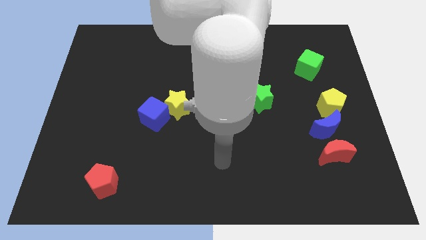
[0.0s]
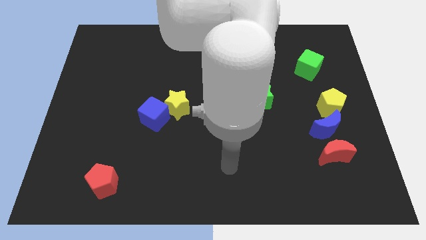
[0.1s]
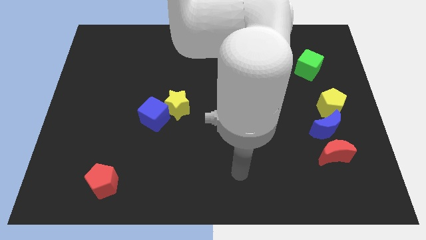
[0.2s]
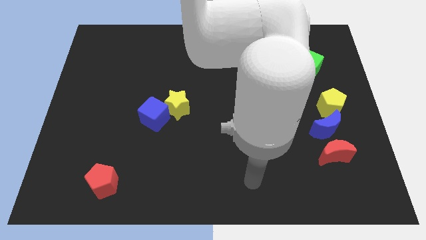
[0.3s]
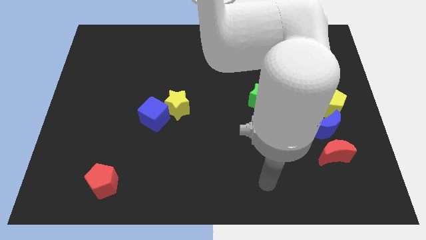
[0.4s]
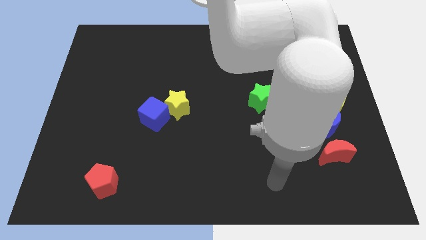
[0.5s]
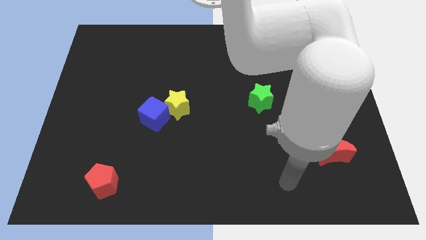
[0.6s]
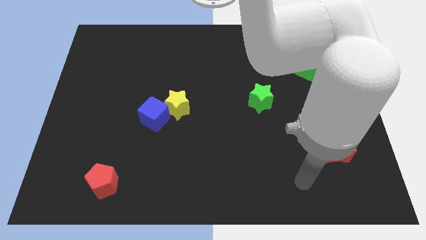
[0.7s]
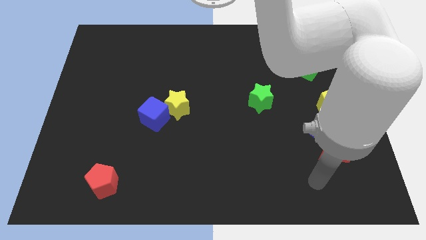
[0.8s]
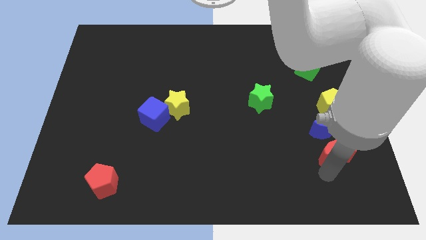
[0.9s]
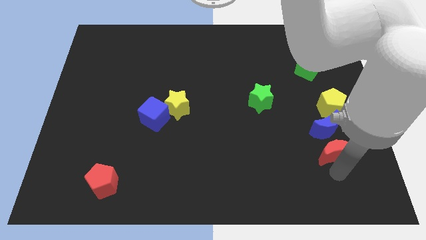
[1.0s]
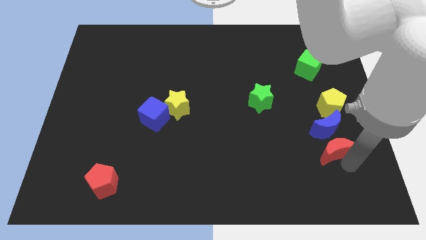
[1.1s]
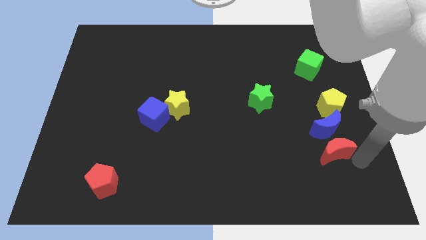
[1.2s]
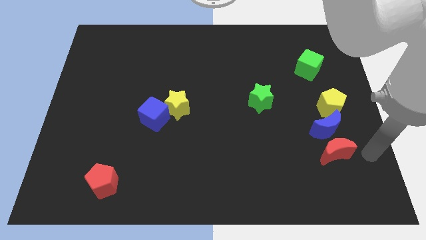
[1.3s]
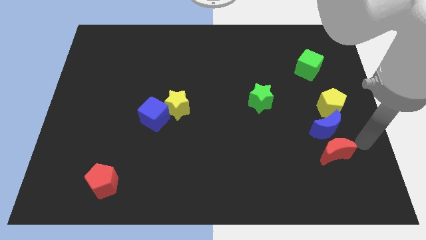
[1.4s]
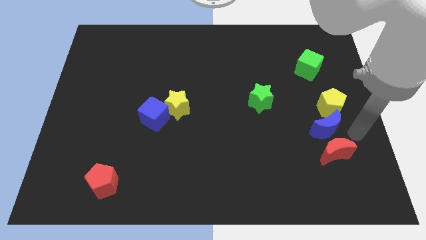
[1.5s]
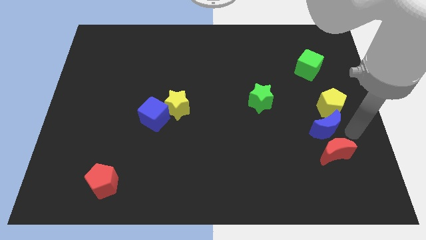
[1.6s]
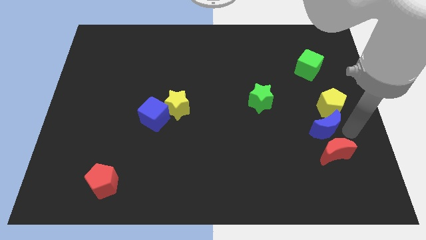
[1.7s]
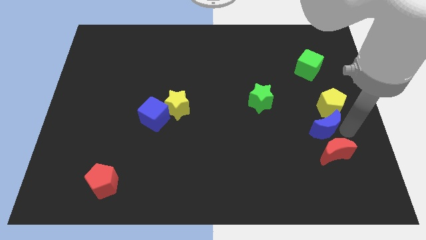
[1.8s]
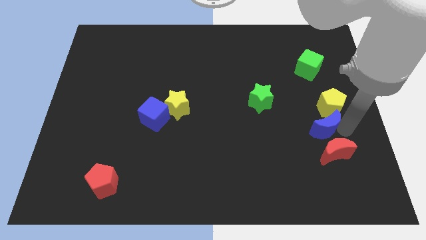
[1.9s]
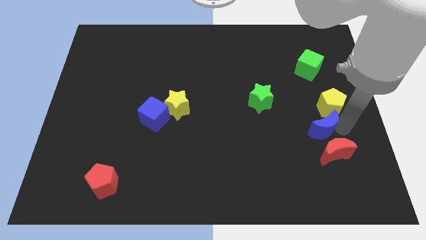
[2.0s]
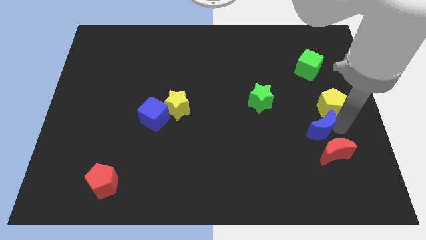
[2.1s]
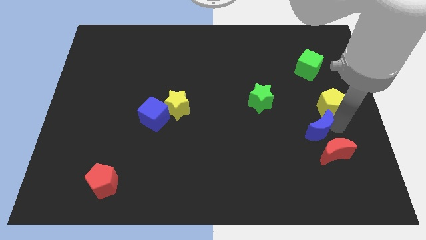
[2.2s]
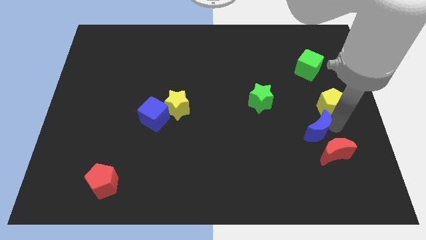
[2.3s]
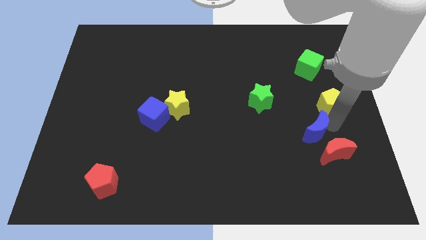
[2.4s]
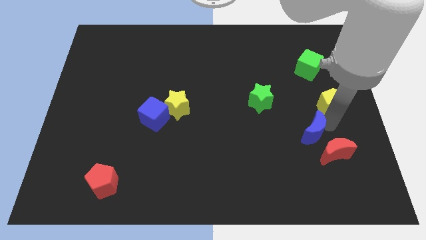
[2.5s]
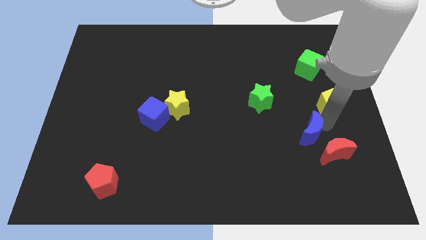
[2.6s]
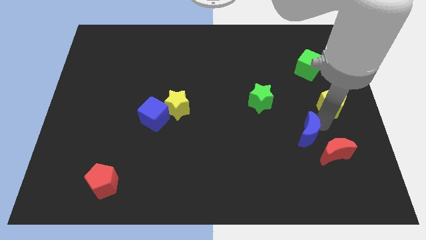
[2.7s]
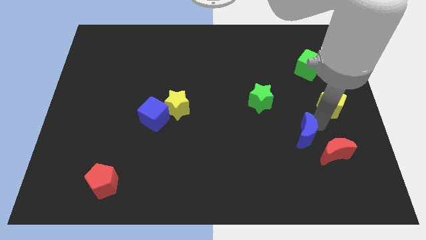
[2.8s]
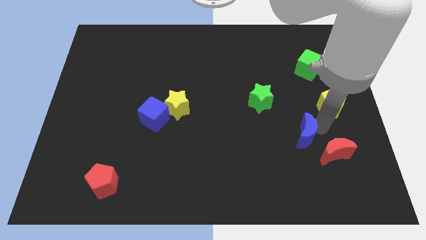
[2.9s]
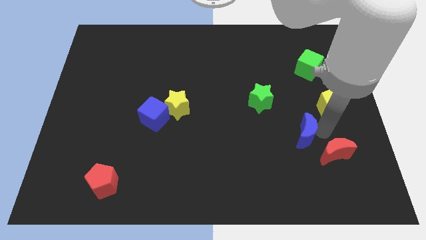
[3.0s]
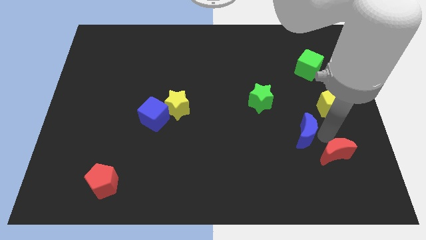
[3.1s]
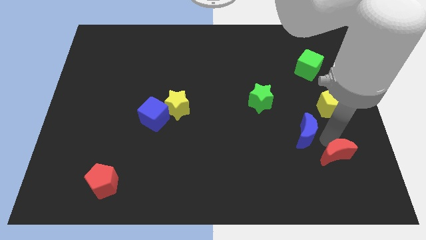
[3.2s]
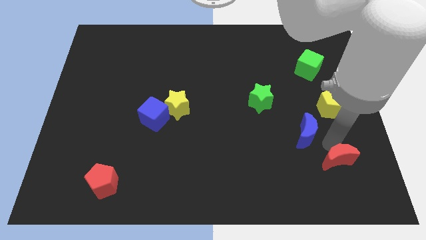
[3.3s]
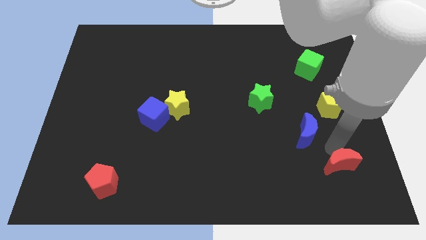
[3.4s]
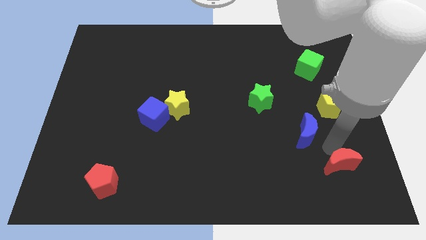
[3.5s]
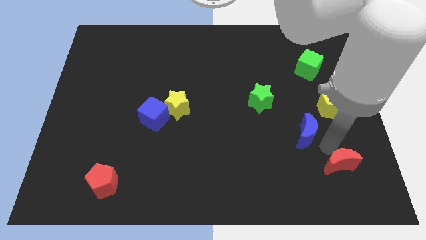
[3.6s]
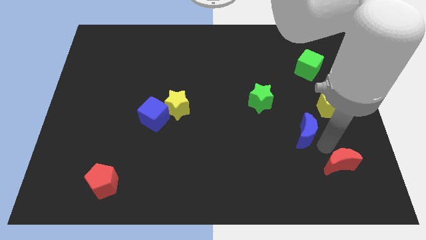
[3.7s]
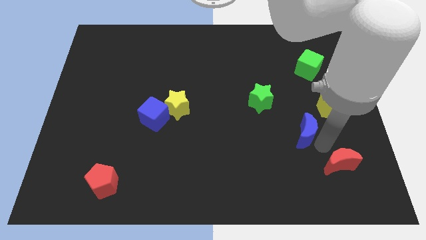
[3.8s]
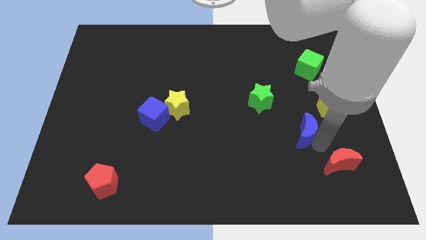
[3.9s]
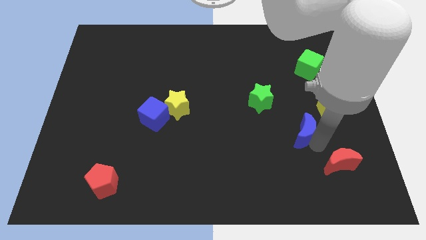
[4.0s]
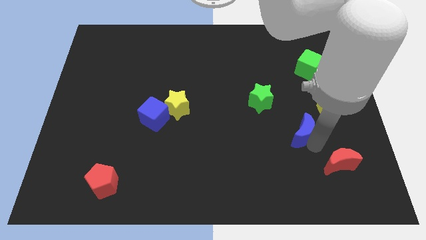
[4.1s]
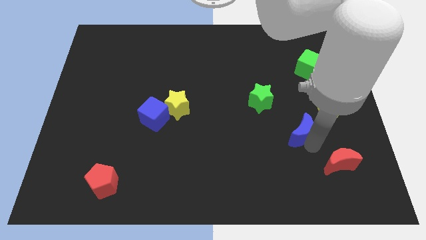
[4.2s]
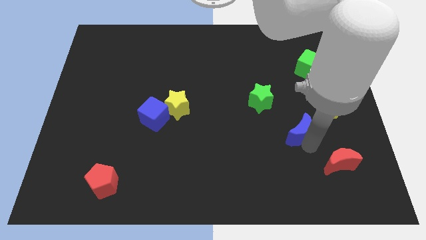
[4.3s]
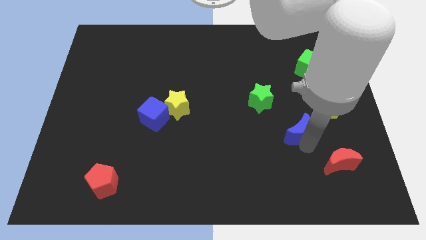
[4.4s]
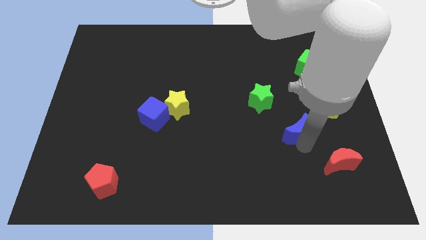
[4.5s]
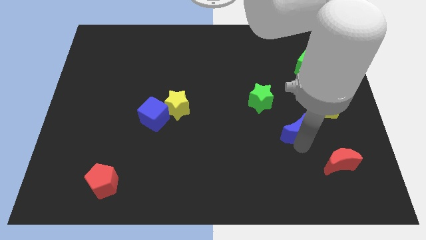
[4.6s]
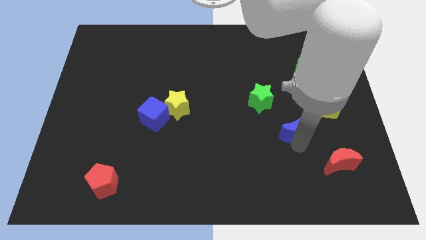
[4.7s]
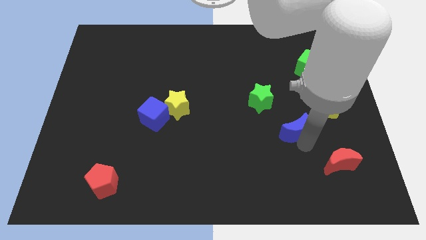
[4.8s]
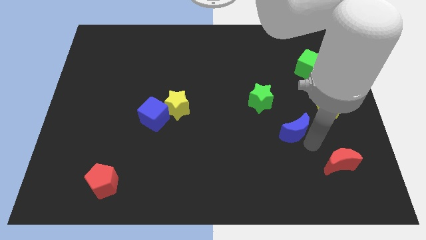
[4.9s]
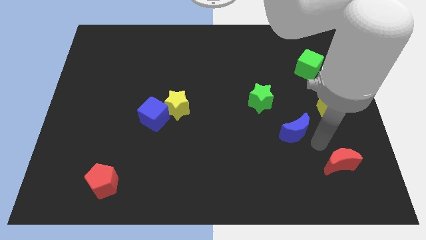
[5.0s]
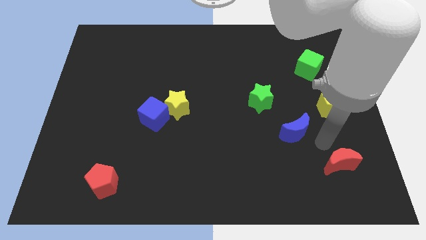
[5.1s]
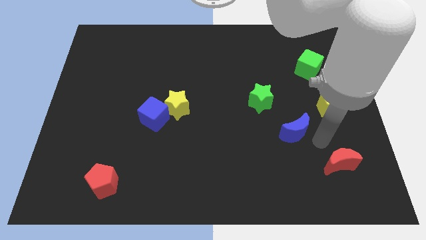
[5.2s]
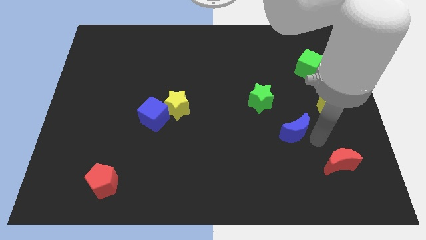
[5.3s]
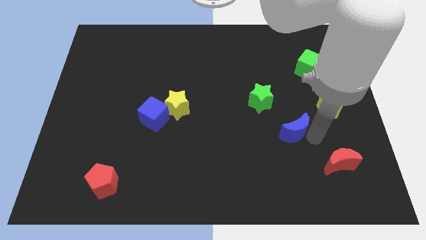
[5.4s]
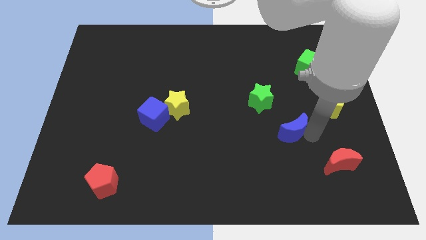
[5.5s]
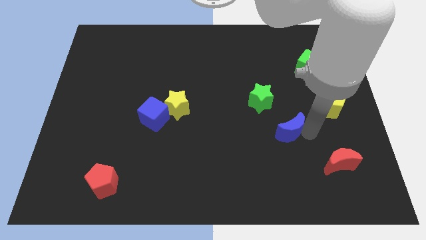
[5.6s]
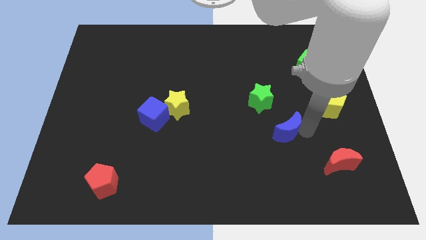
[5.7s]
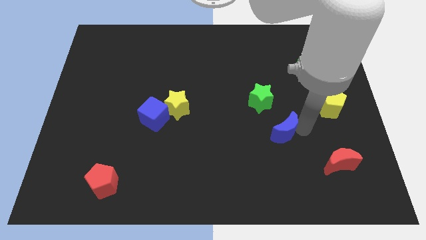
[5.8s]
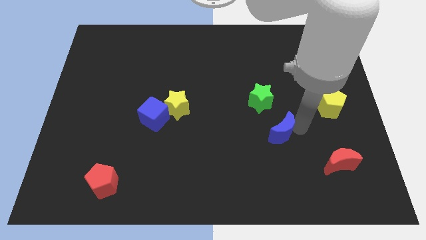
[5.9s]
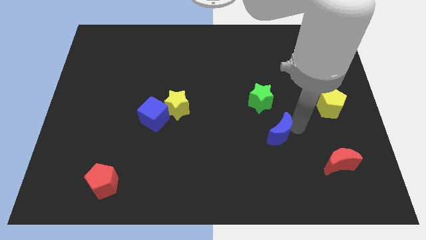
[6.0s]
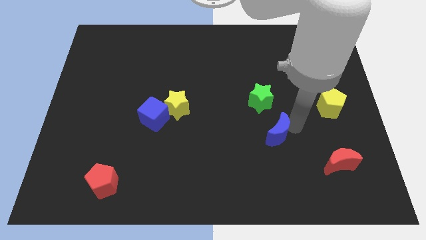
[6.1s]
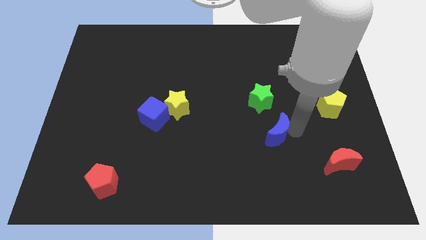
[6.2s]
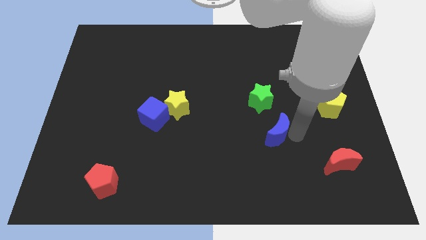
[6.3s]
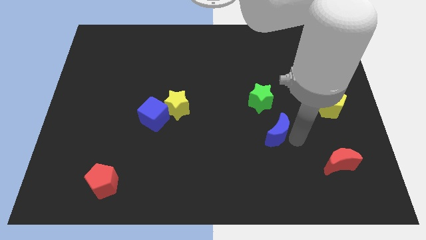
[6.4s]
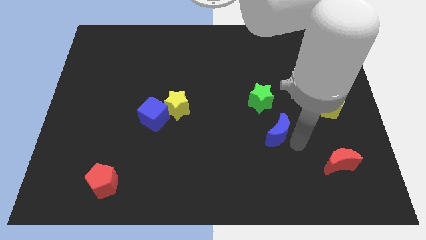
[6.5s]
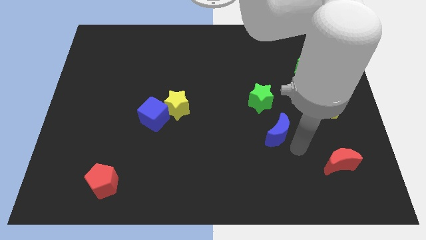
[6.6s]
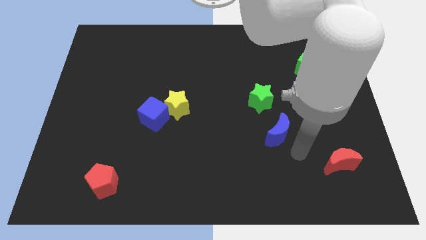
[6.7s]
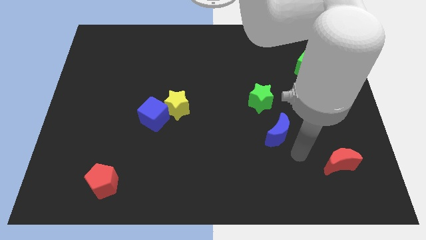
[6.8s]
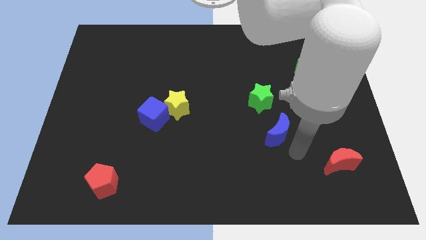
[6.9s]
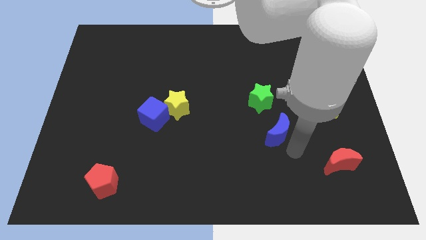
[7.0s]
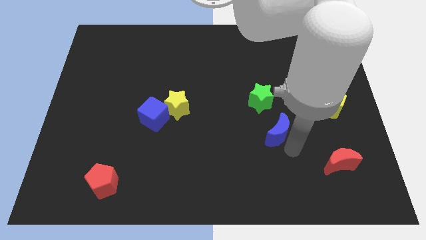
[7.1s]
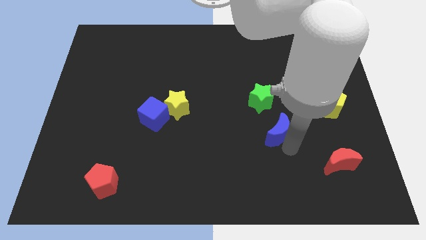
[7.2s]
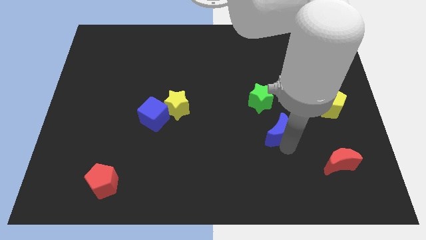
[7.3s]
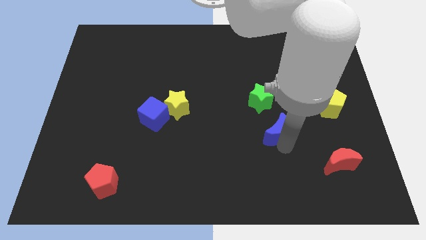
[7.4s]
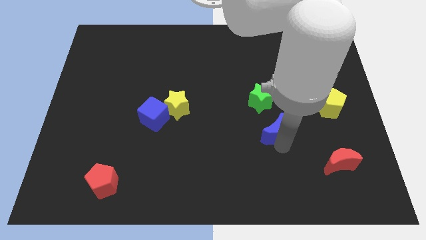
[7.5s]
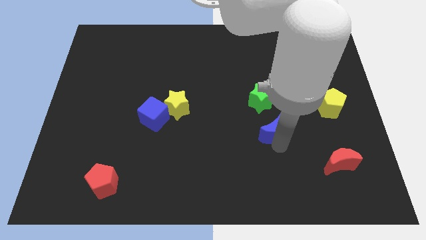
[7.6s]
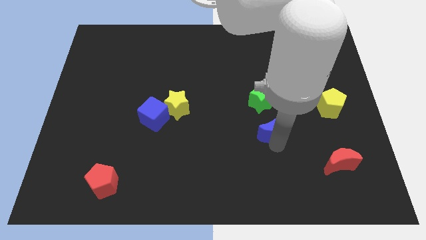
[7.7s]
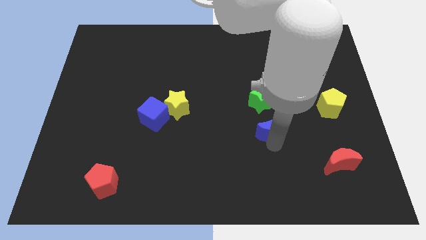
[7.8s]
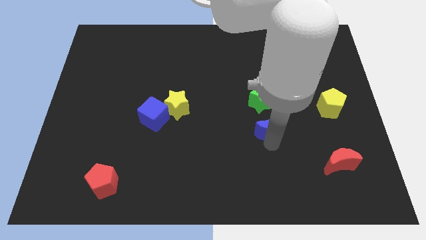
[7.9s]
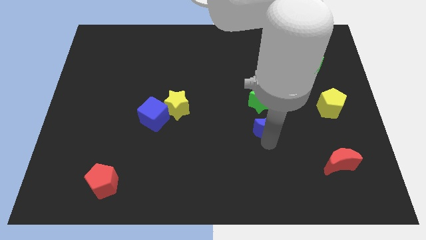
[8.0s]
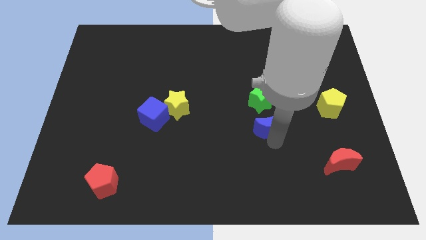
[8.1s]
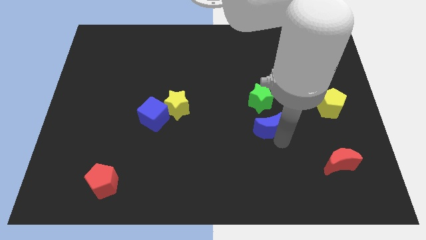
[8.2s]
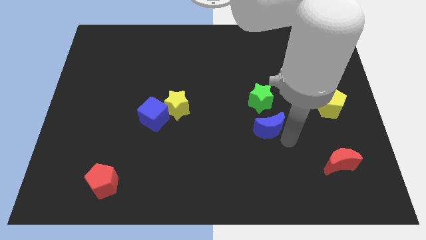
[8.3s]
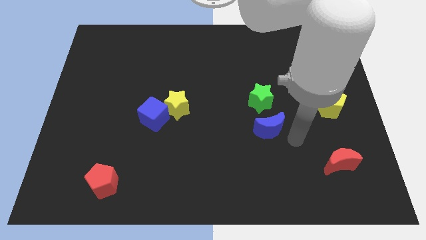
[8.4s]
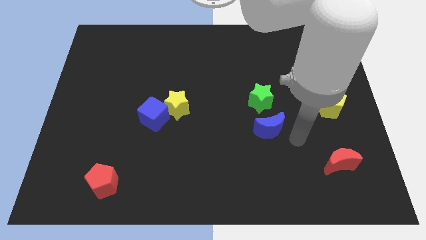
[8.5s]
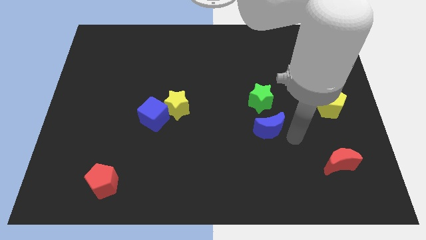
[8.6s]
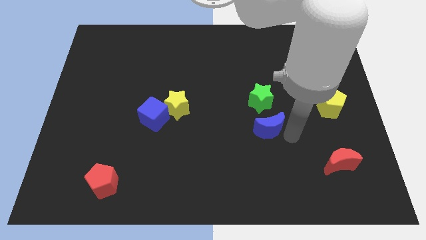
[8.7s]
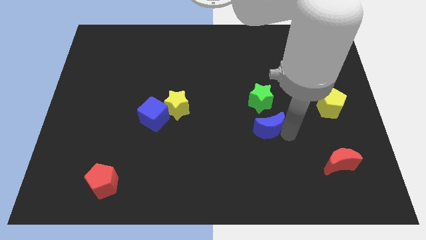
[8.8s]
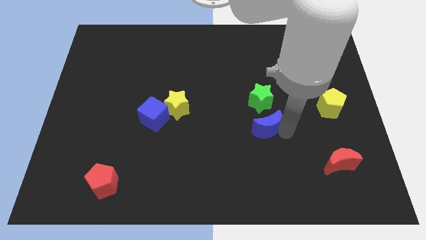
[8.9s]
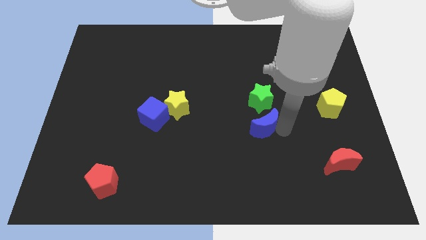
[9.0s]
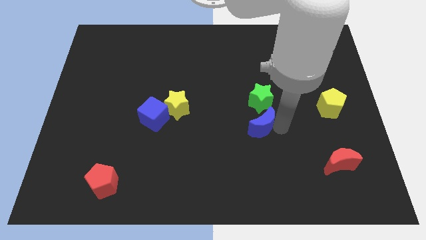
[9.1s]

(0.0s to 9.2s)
put the blue moon diagonally down and to the left of the green star
